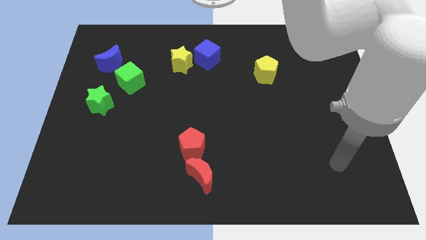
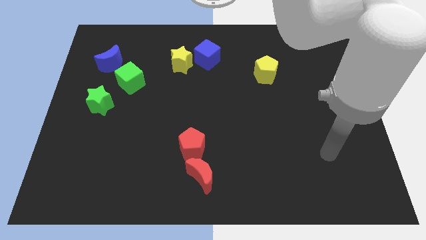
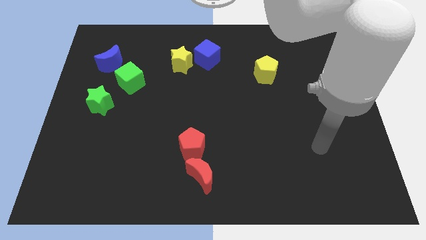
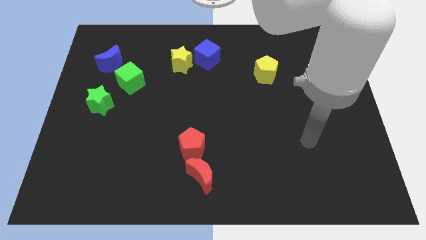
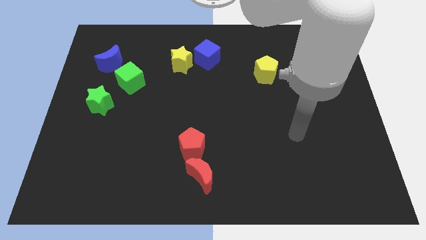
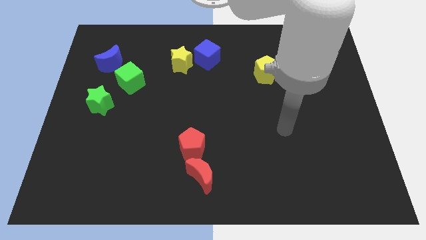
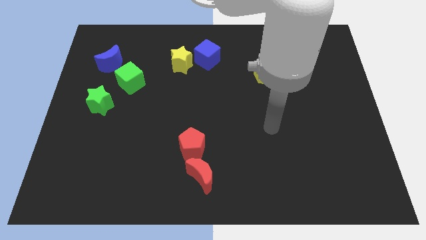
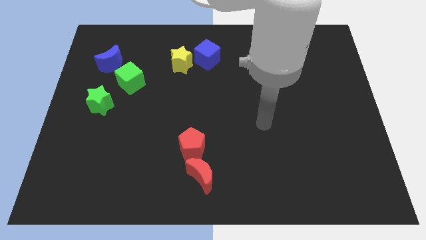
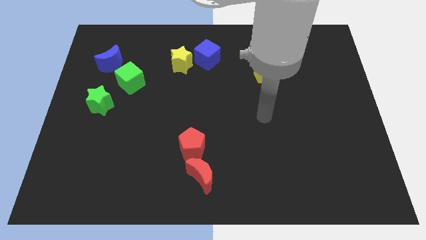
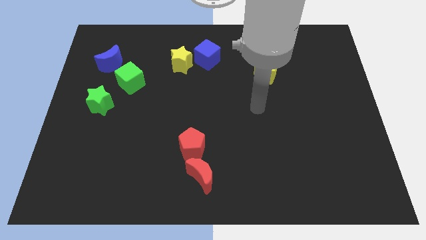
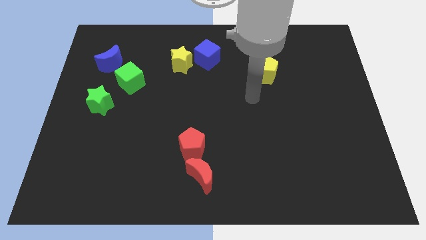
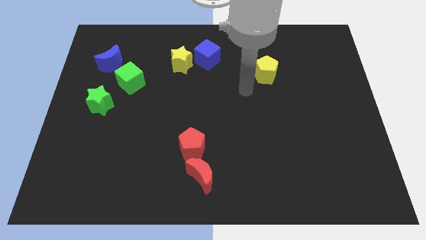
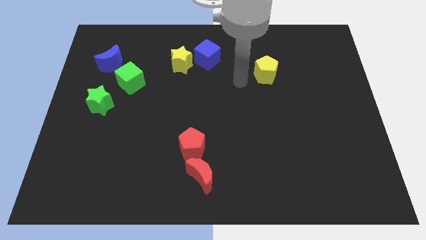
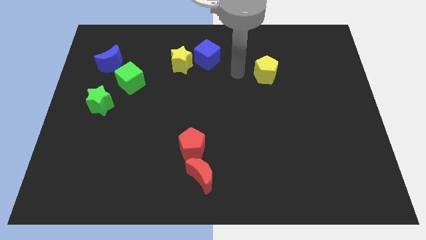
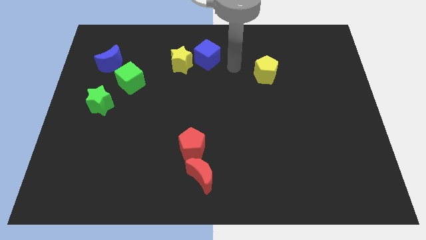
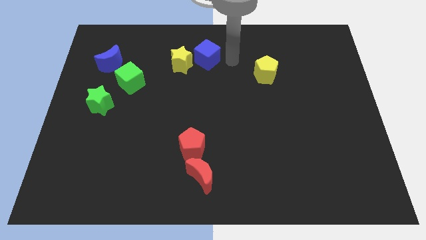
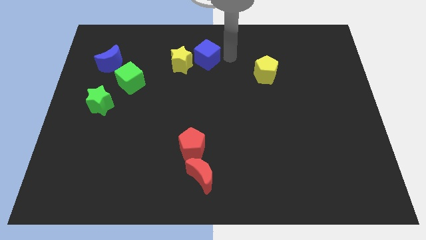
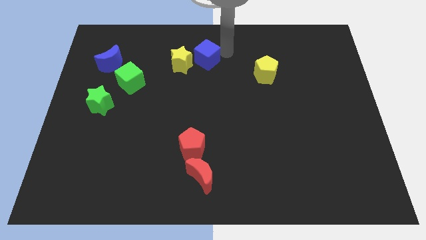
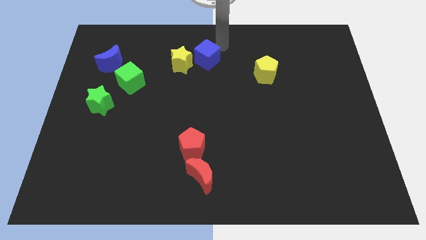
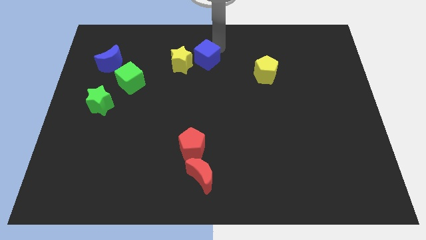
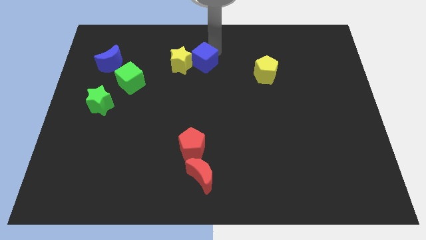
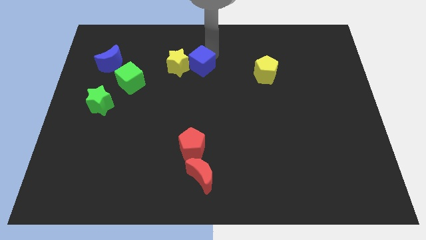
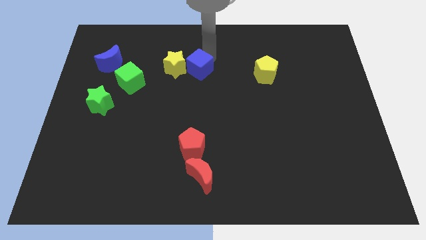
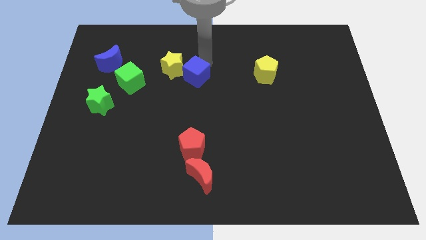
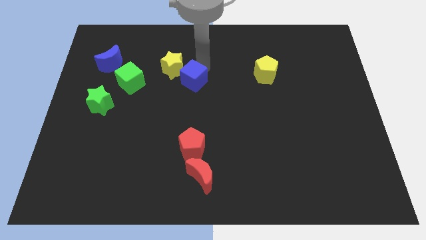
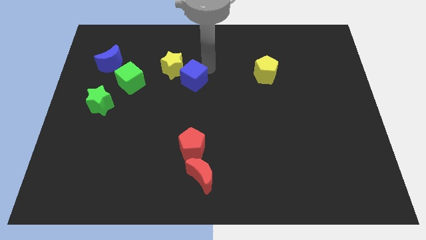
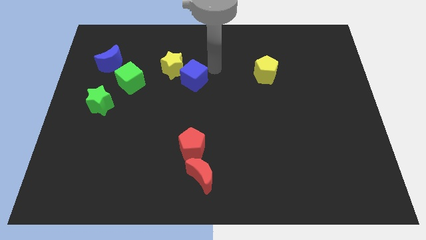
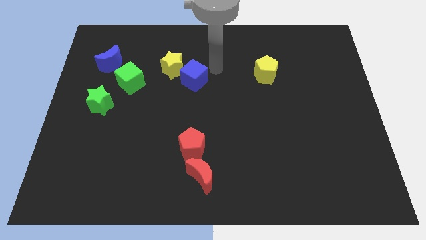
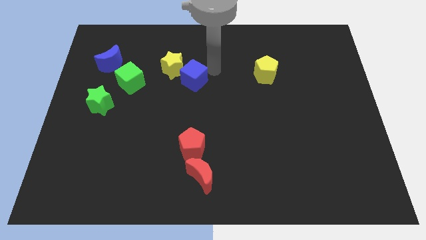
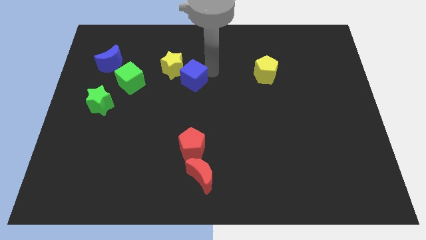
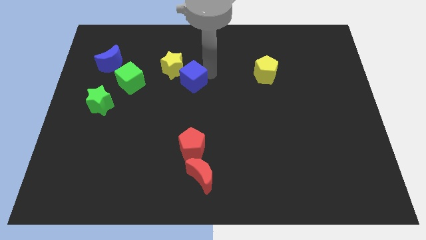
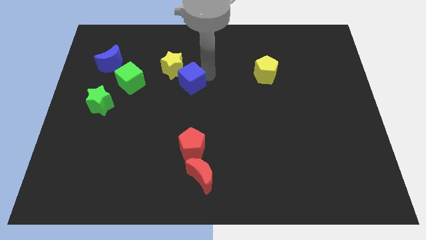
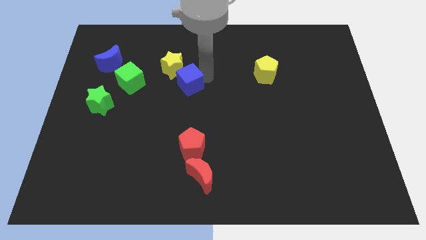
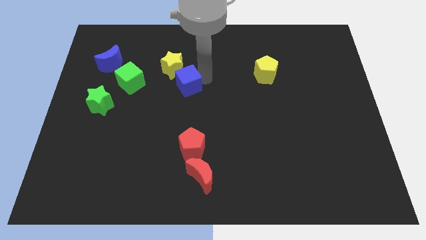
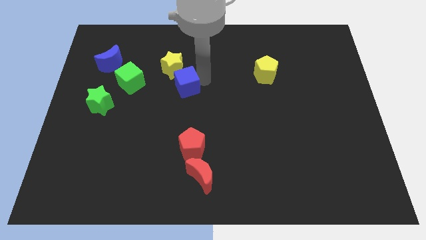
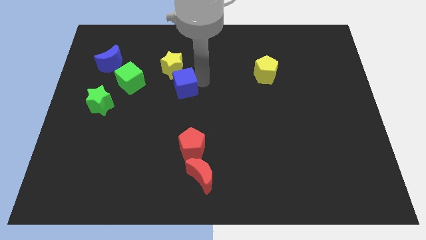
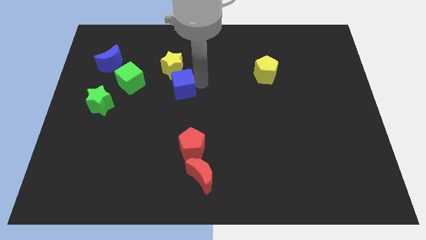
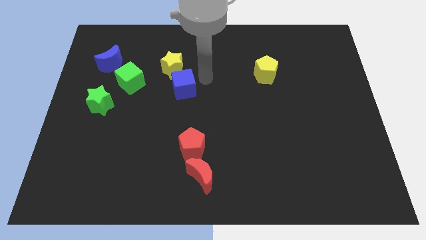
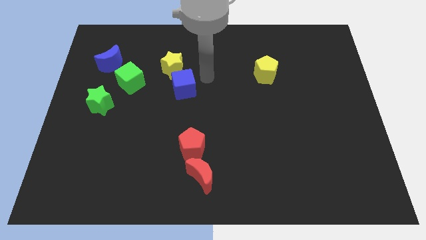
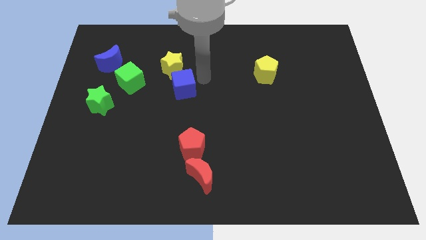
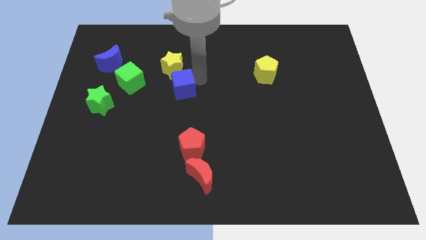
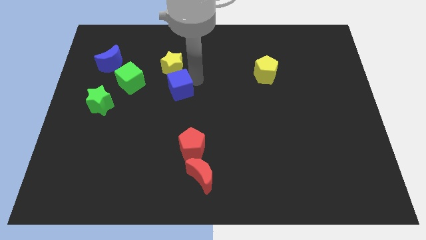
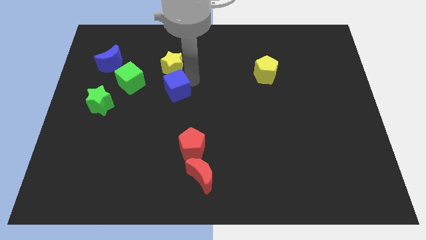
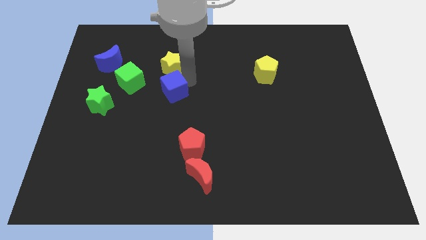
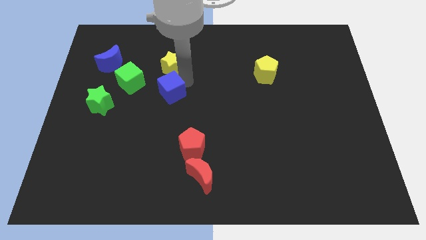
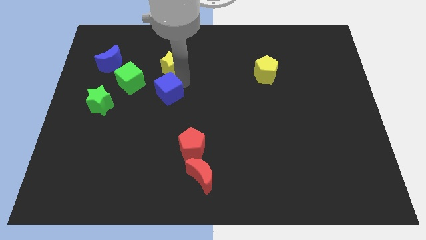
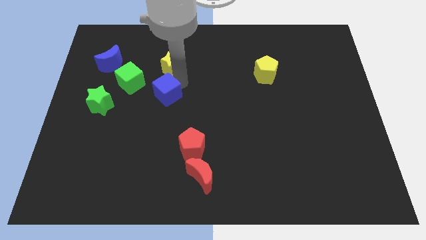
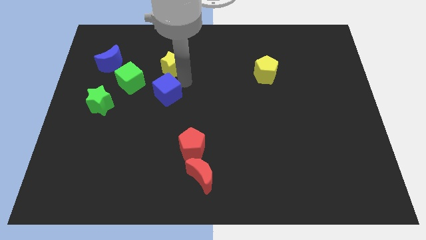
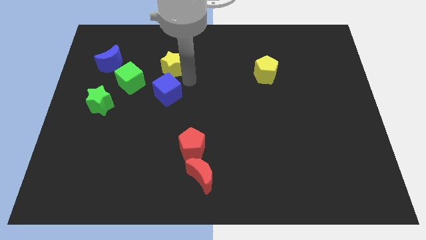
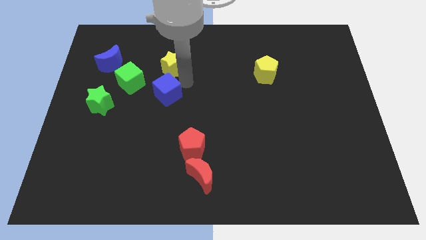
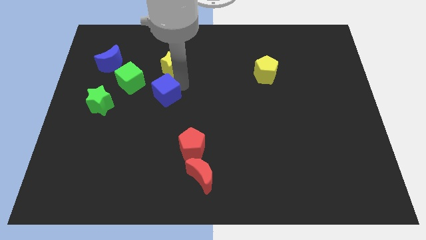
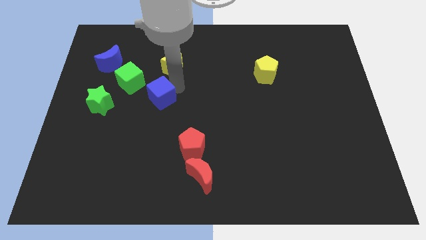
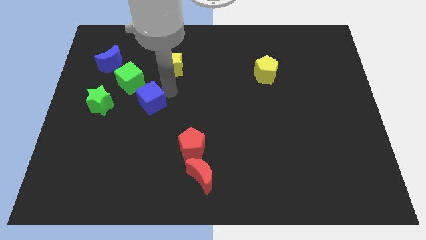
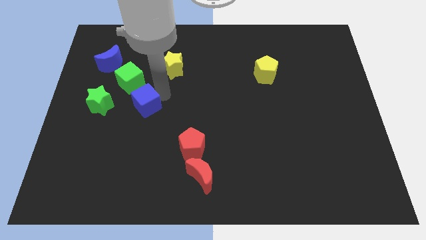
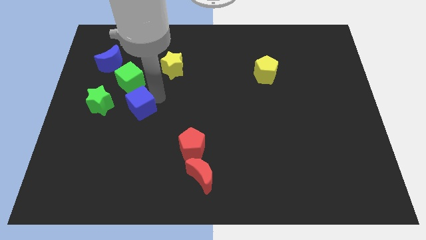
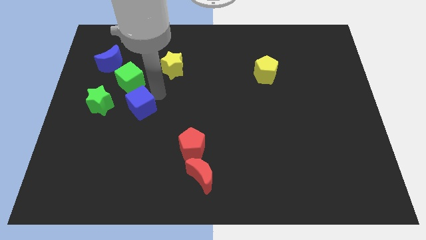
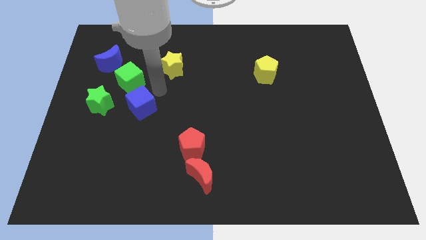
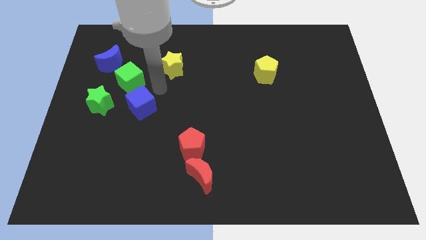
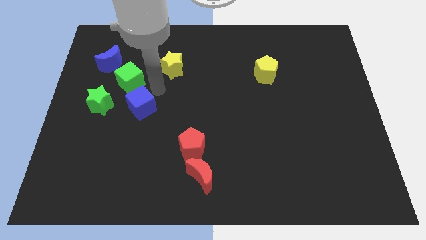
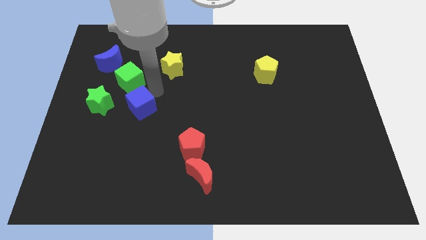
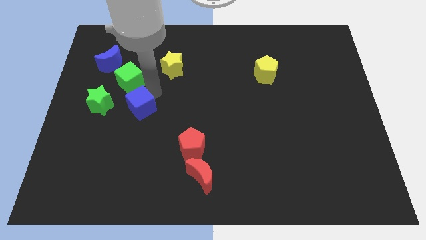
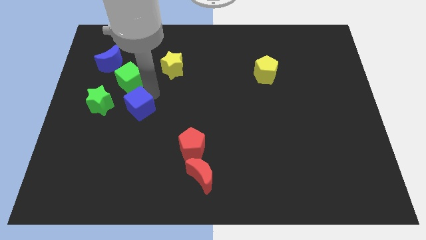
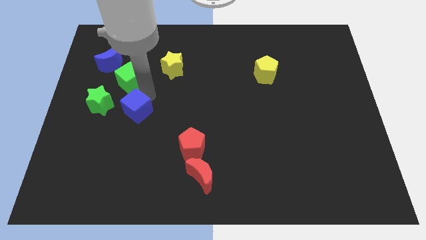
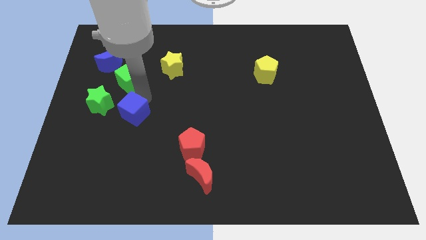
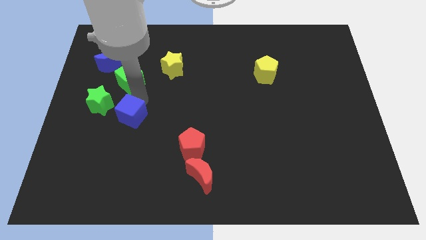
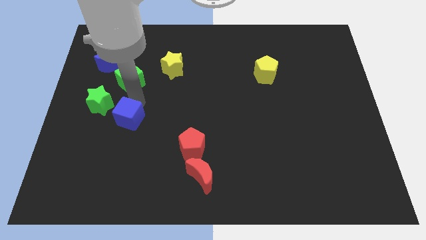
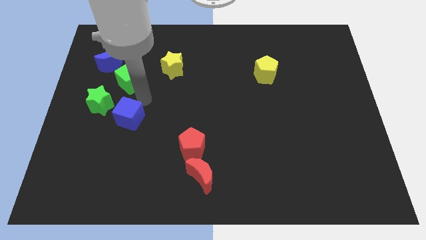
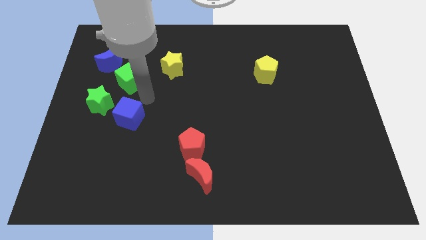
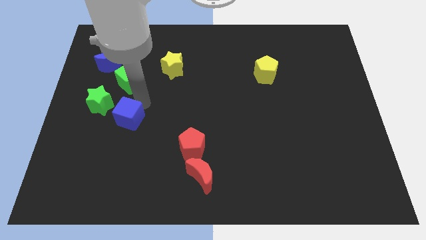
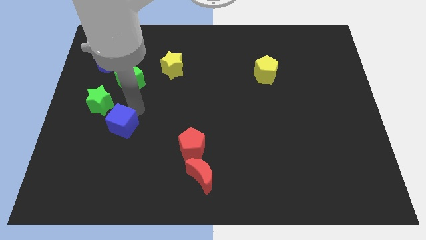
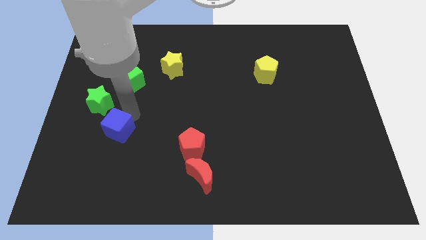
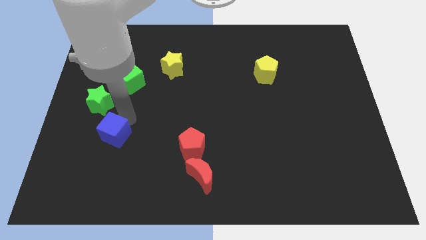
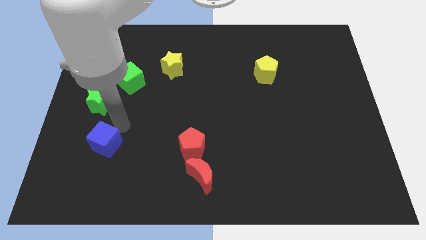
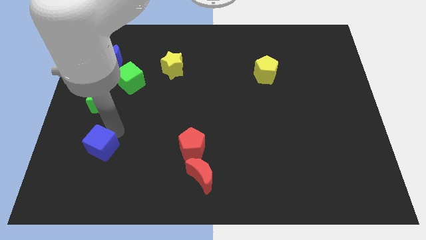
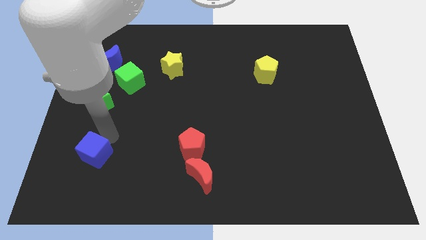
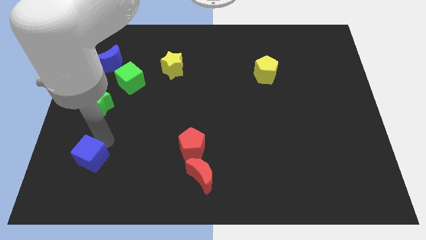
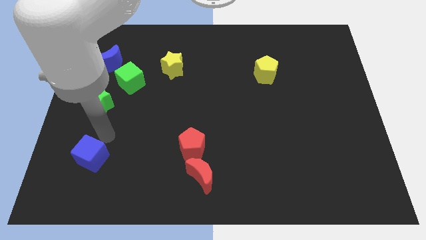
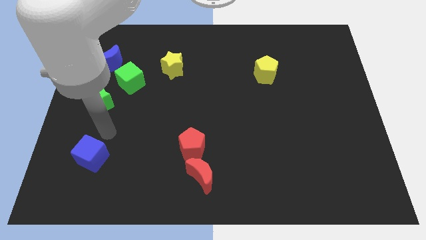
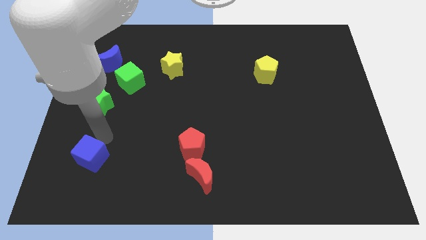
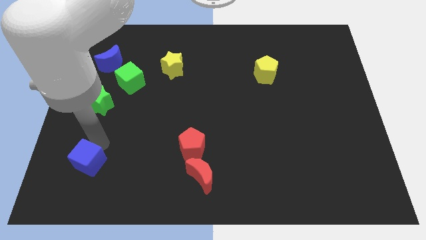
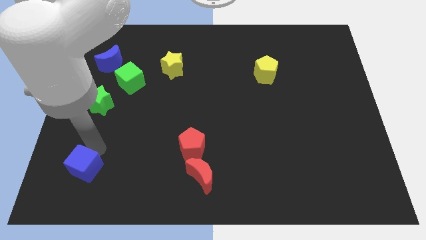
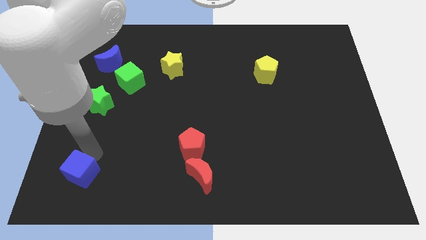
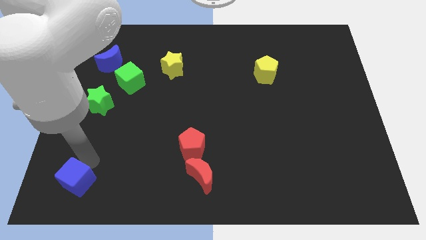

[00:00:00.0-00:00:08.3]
move the blue cube to the lower left corner
